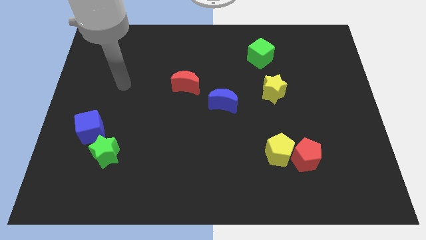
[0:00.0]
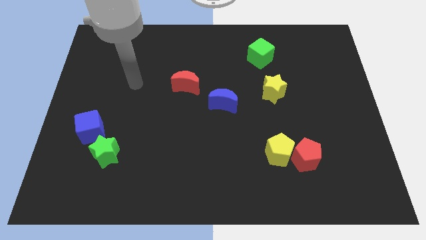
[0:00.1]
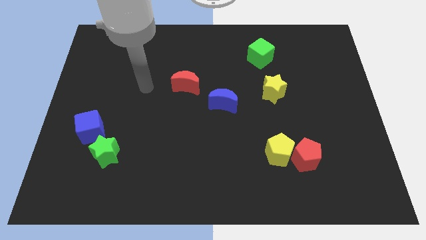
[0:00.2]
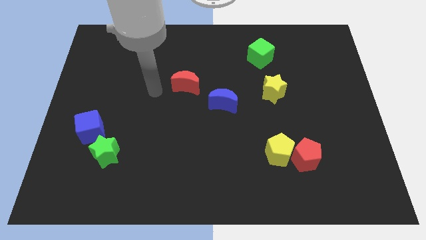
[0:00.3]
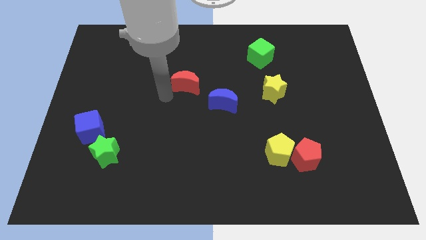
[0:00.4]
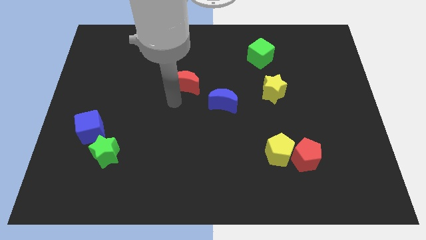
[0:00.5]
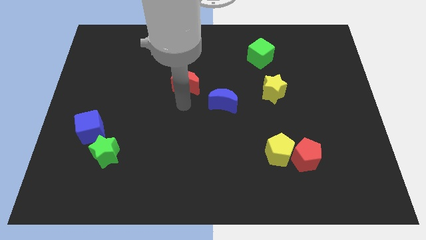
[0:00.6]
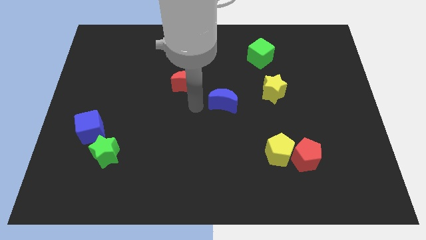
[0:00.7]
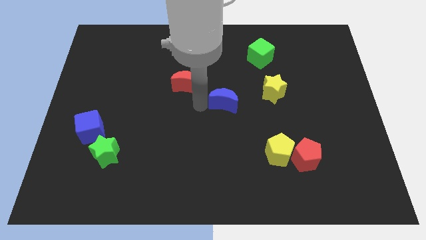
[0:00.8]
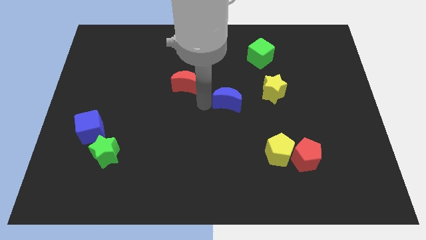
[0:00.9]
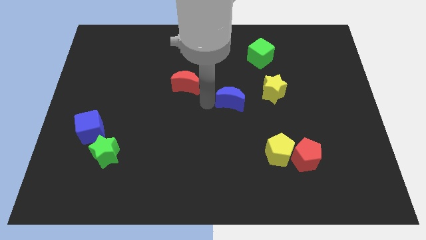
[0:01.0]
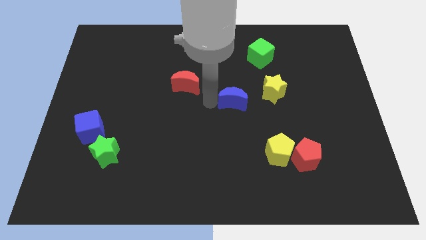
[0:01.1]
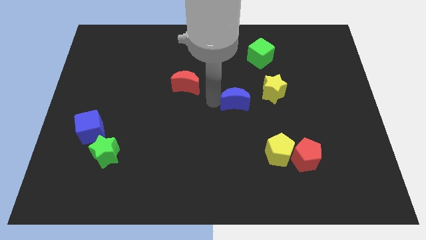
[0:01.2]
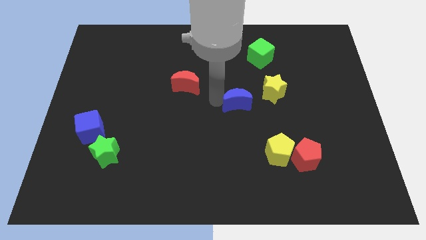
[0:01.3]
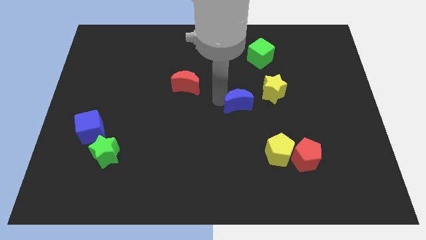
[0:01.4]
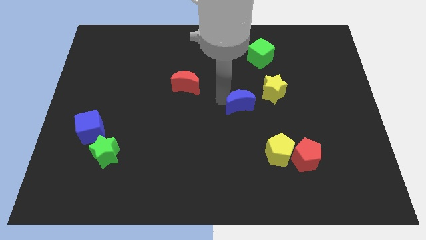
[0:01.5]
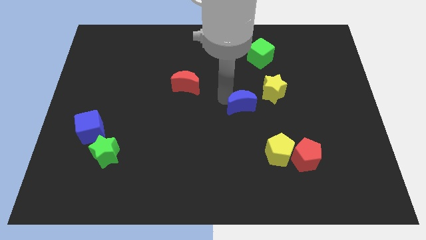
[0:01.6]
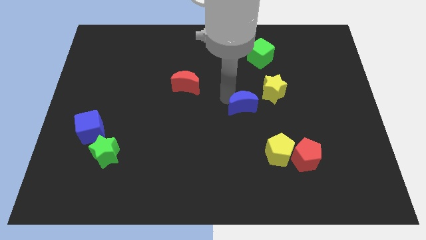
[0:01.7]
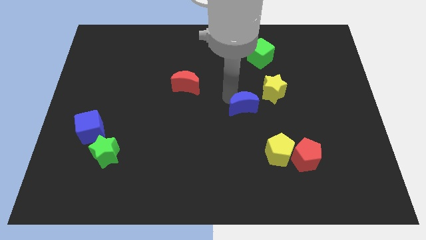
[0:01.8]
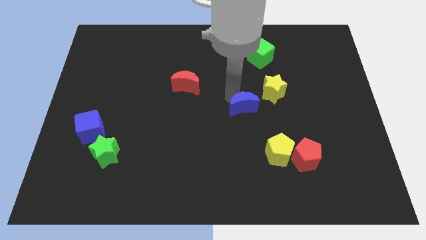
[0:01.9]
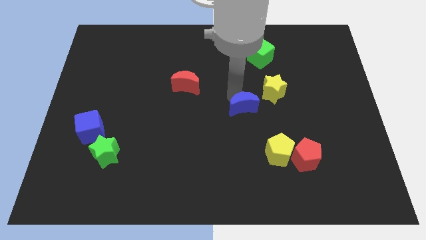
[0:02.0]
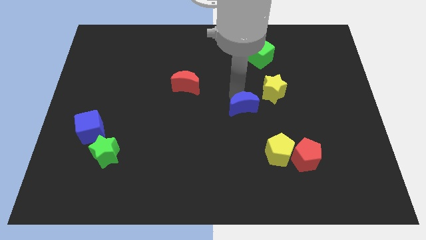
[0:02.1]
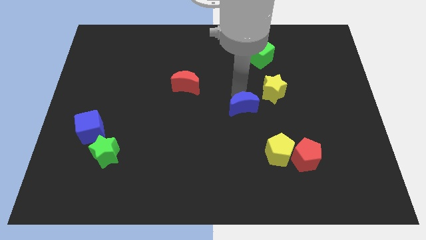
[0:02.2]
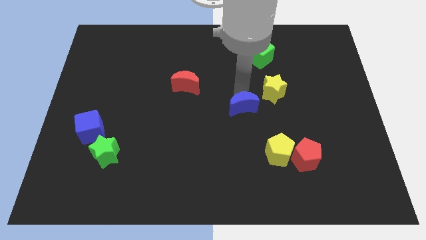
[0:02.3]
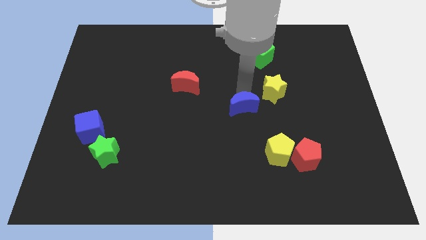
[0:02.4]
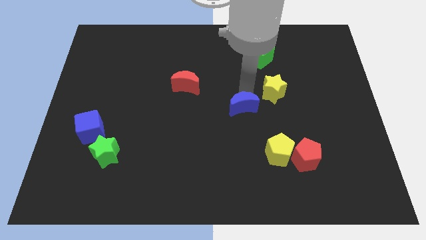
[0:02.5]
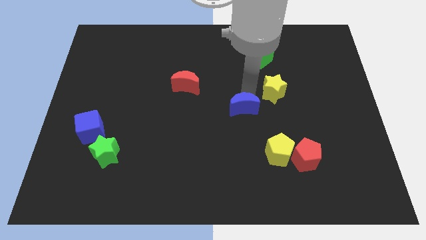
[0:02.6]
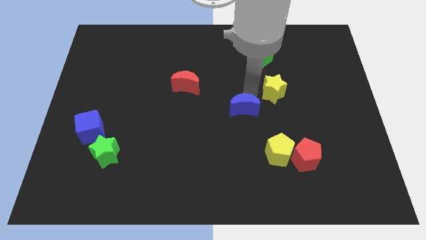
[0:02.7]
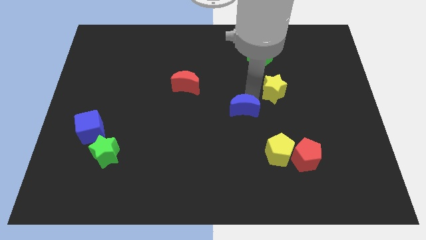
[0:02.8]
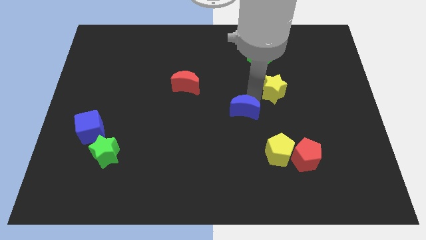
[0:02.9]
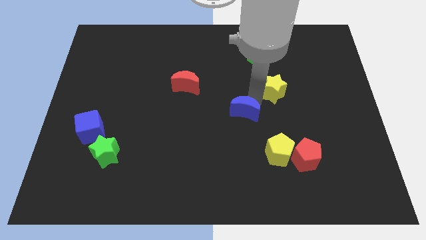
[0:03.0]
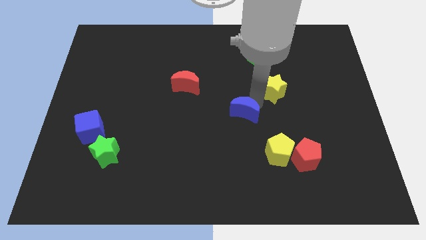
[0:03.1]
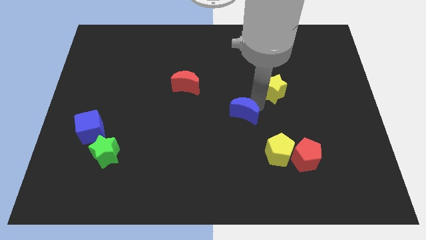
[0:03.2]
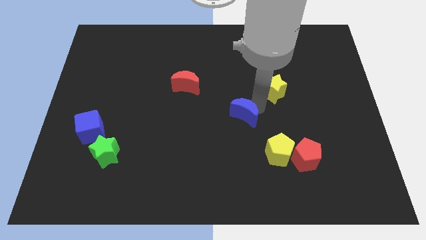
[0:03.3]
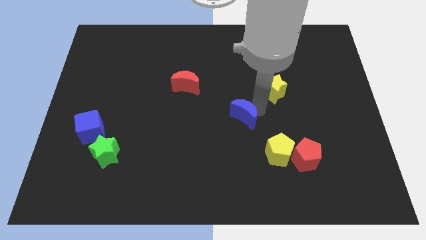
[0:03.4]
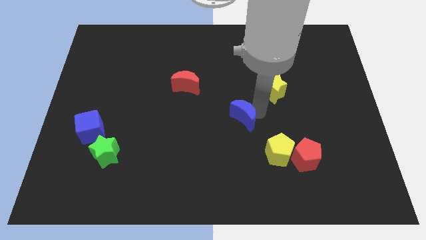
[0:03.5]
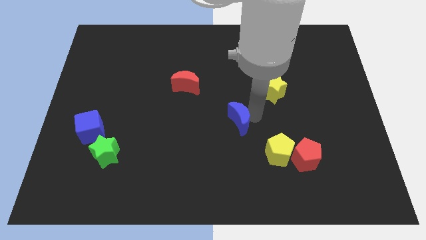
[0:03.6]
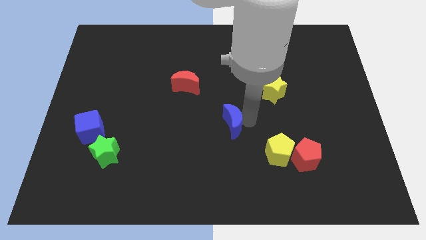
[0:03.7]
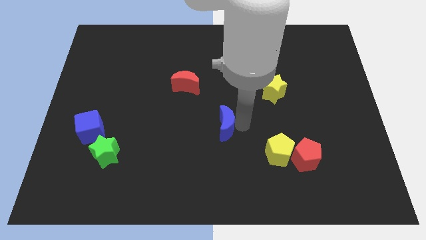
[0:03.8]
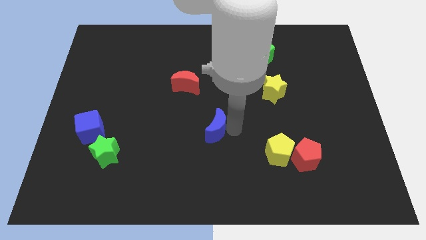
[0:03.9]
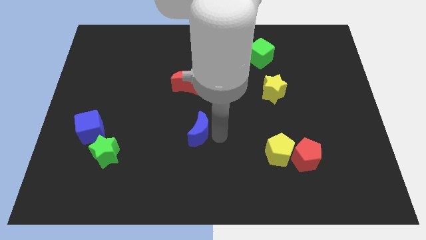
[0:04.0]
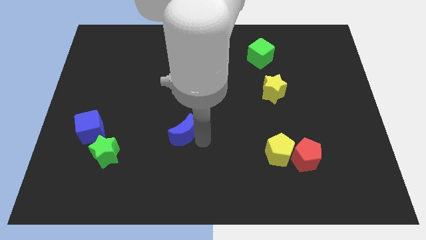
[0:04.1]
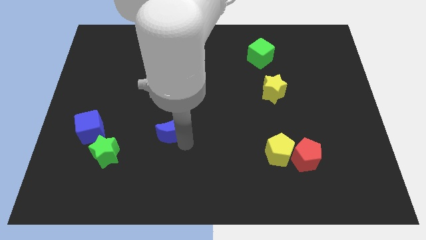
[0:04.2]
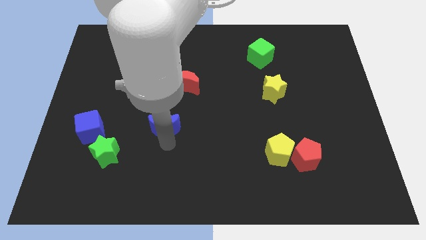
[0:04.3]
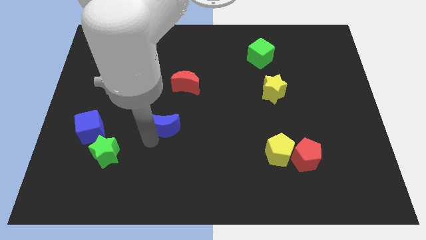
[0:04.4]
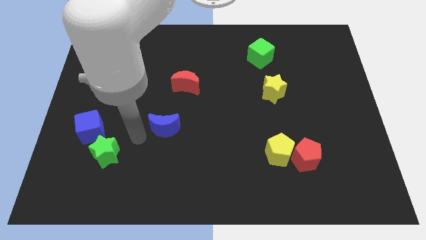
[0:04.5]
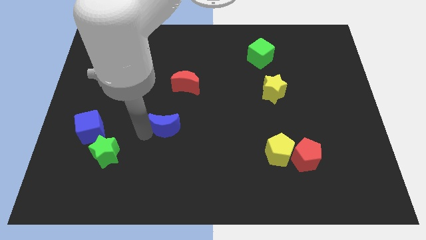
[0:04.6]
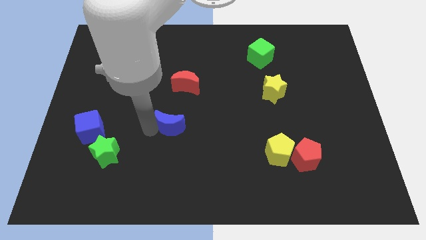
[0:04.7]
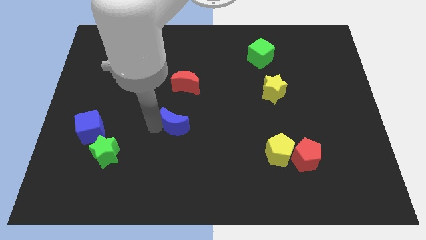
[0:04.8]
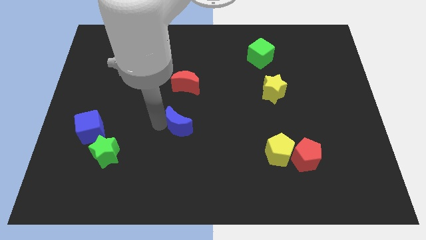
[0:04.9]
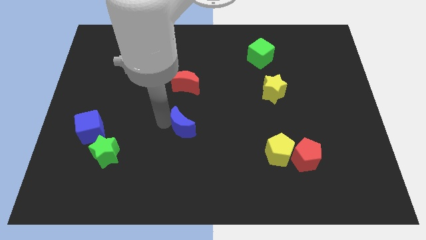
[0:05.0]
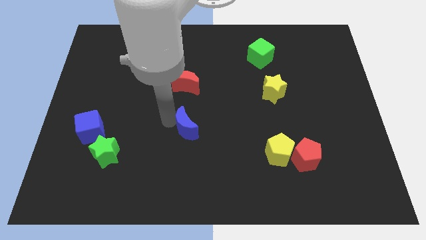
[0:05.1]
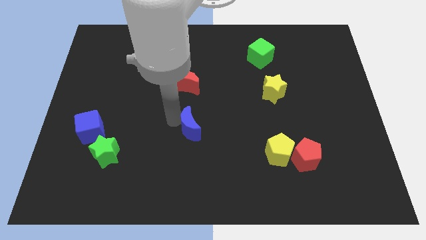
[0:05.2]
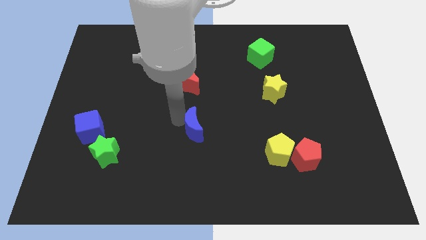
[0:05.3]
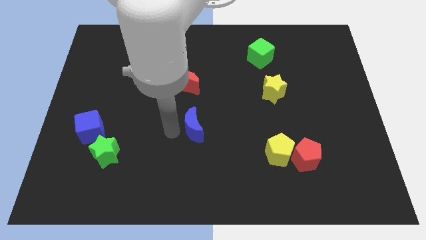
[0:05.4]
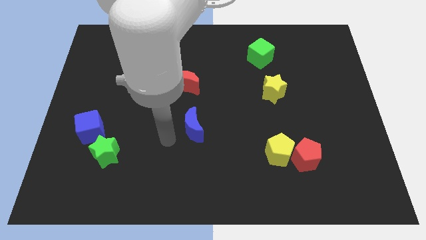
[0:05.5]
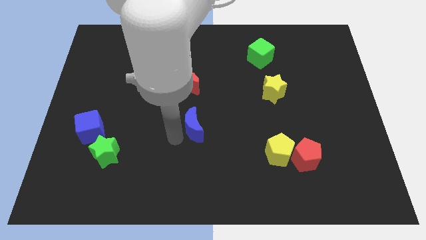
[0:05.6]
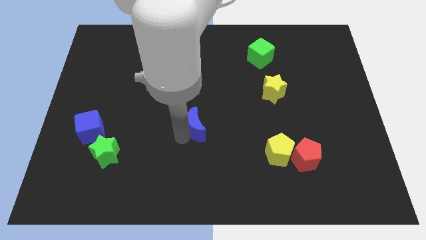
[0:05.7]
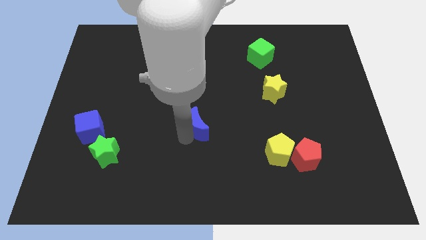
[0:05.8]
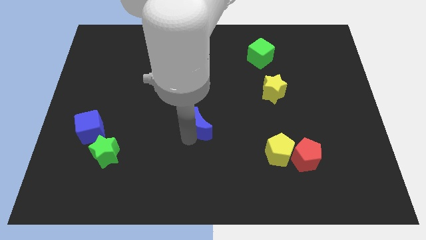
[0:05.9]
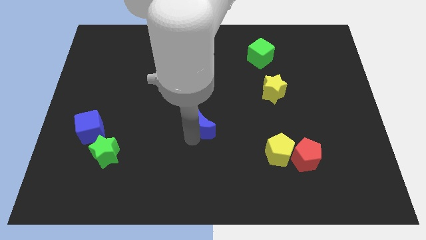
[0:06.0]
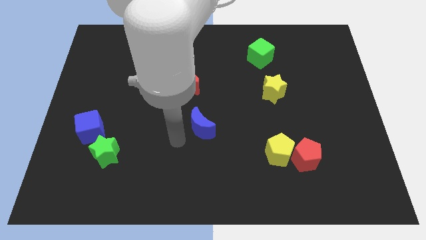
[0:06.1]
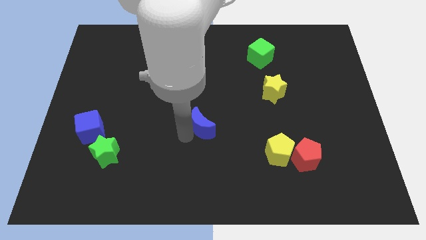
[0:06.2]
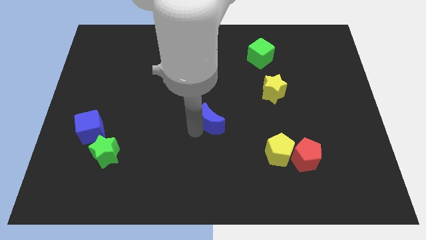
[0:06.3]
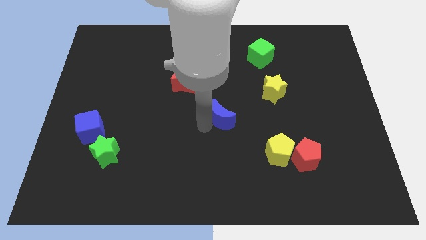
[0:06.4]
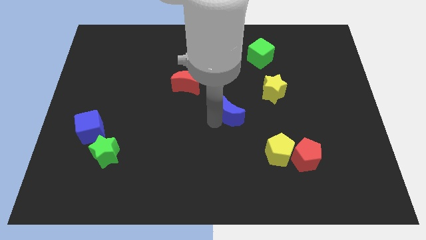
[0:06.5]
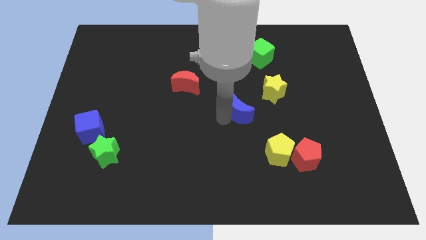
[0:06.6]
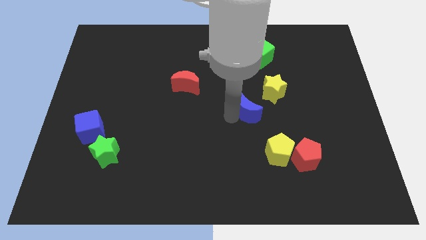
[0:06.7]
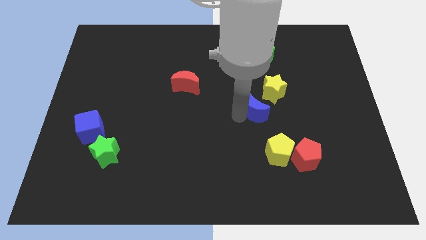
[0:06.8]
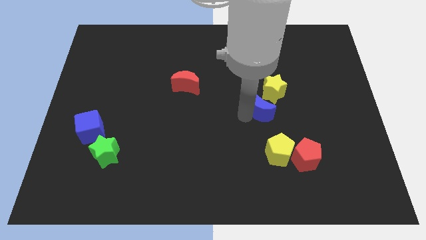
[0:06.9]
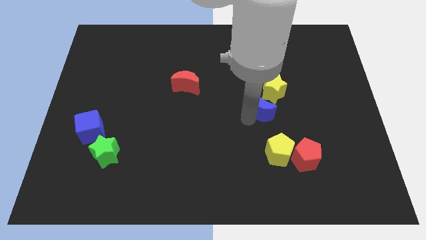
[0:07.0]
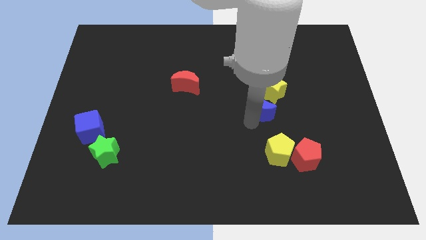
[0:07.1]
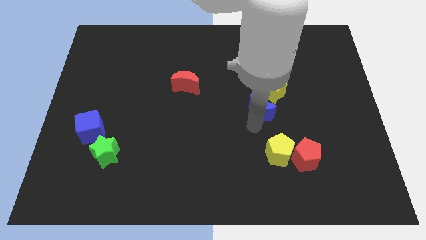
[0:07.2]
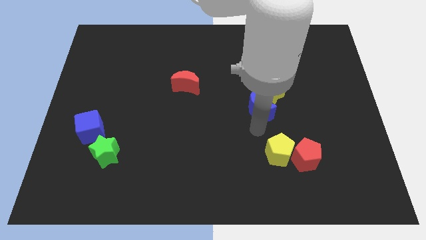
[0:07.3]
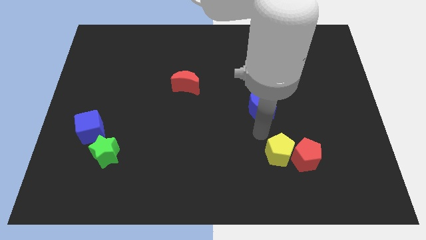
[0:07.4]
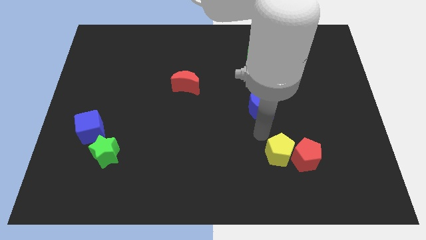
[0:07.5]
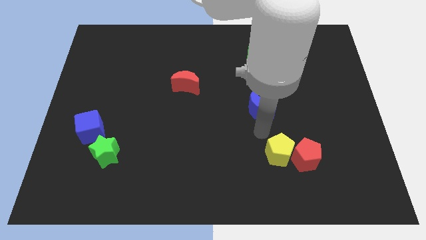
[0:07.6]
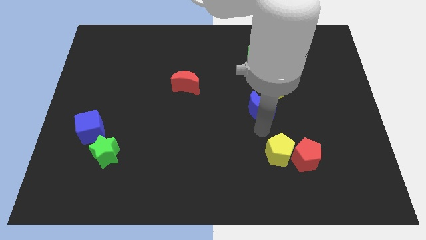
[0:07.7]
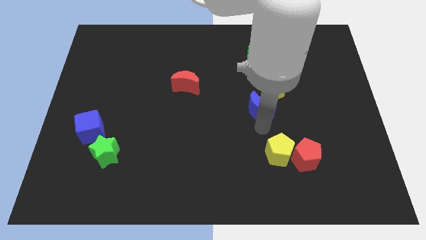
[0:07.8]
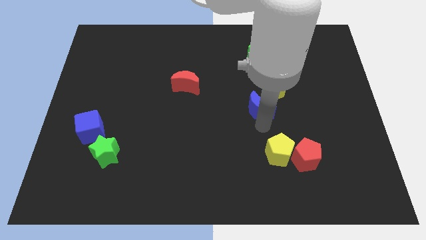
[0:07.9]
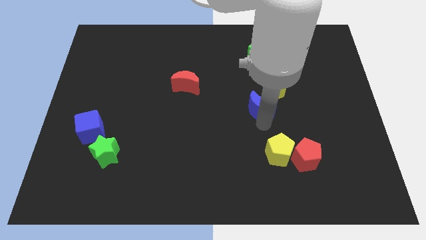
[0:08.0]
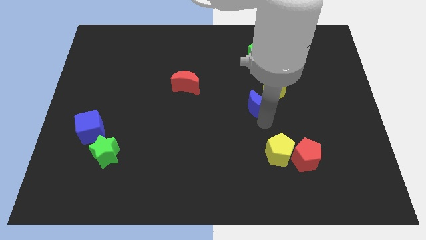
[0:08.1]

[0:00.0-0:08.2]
move the blue moon to the yellow star
